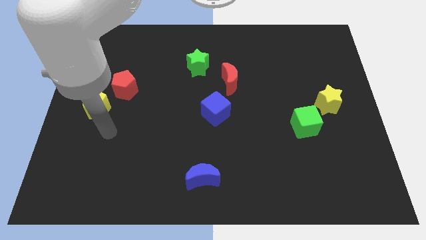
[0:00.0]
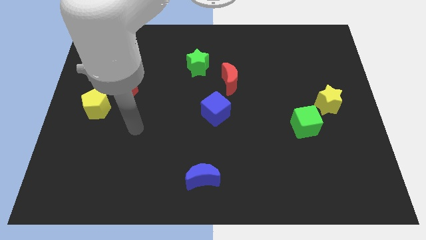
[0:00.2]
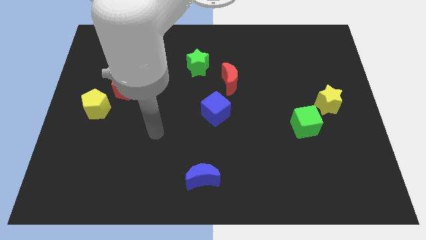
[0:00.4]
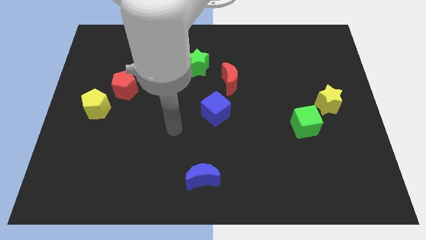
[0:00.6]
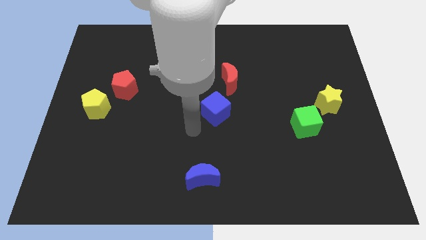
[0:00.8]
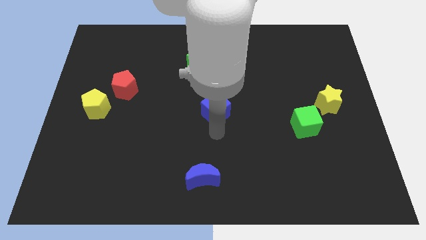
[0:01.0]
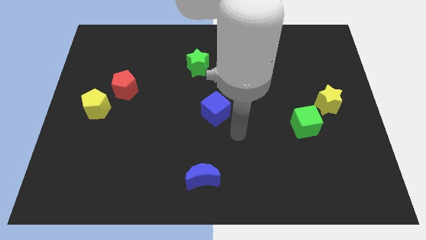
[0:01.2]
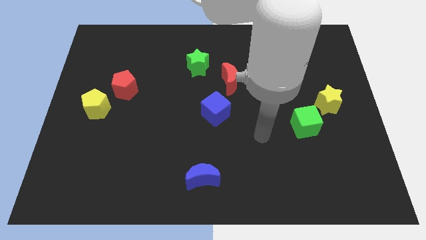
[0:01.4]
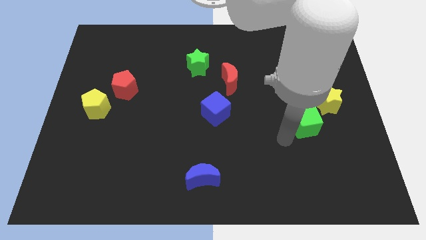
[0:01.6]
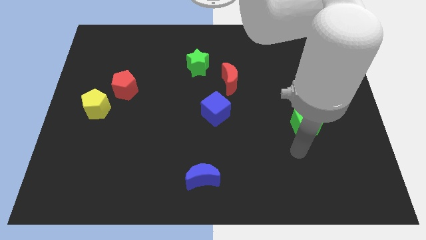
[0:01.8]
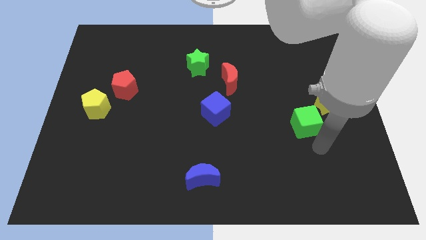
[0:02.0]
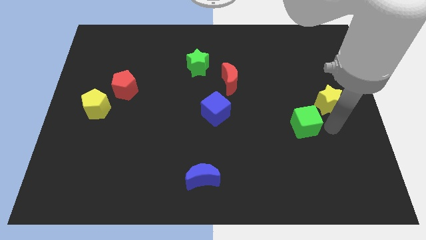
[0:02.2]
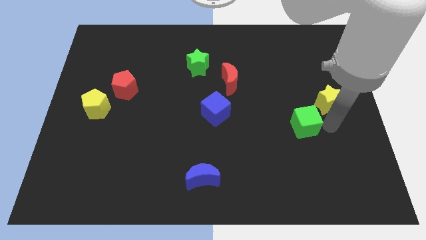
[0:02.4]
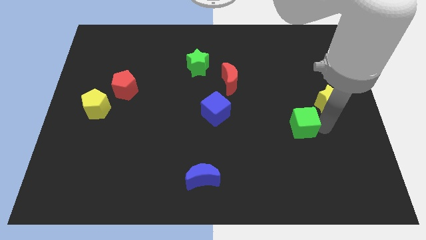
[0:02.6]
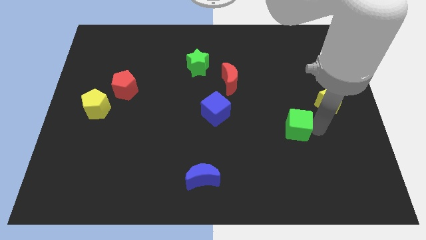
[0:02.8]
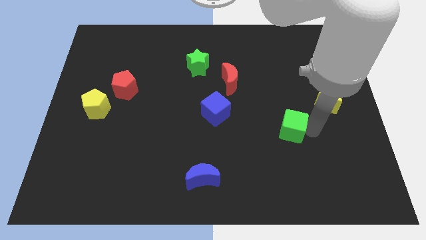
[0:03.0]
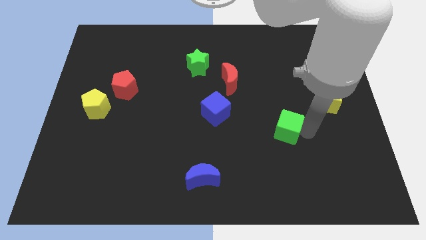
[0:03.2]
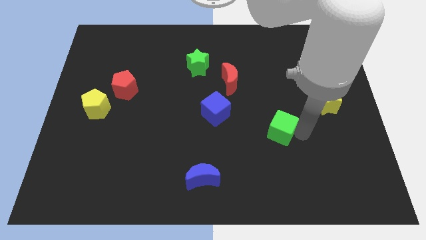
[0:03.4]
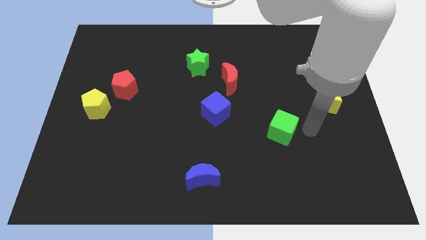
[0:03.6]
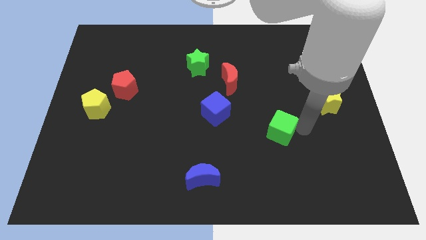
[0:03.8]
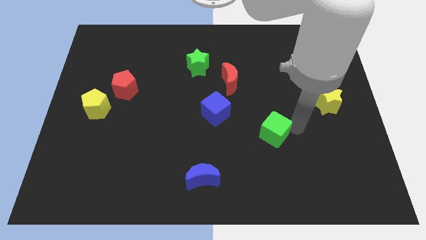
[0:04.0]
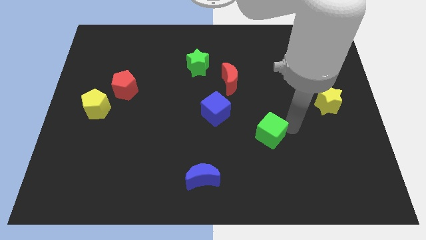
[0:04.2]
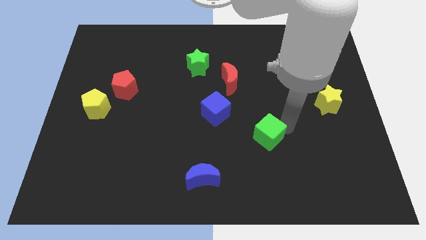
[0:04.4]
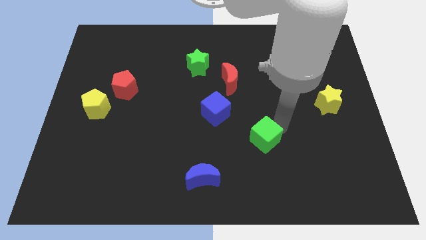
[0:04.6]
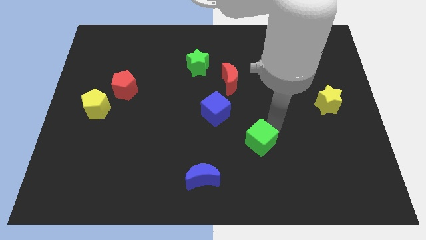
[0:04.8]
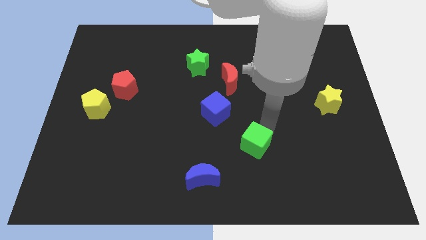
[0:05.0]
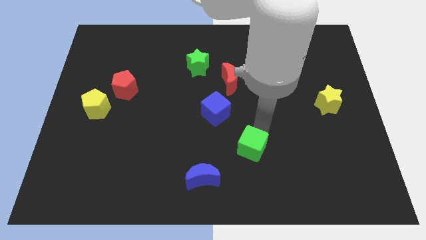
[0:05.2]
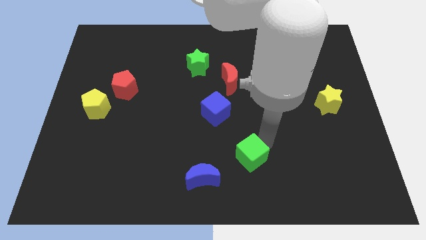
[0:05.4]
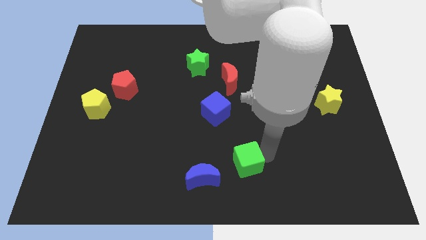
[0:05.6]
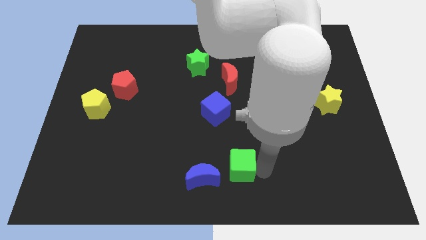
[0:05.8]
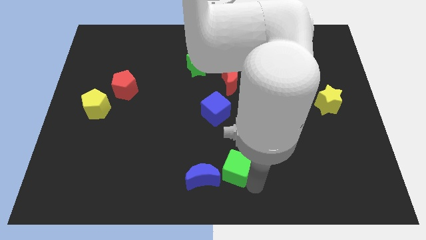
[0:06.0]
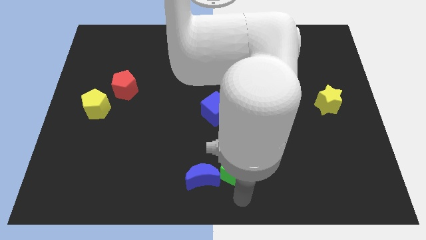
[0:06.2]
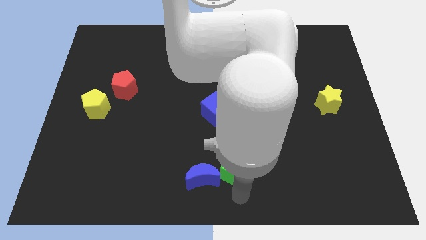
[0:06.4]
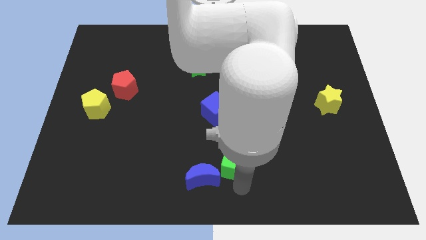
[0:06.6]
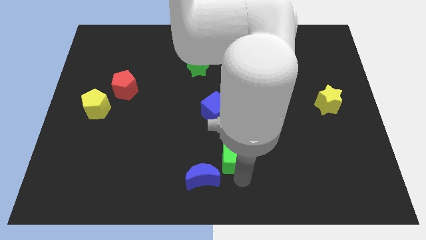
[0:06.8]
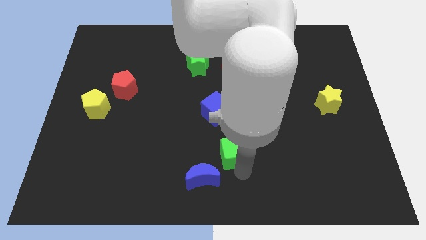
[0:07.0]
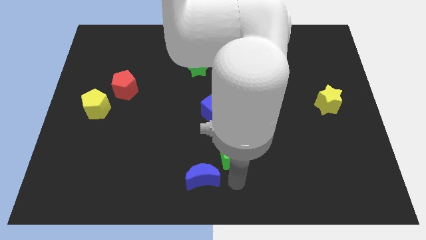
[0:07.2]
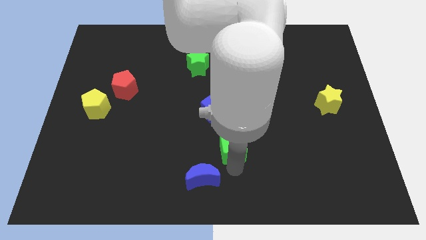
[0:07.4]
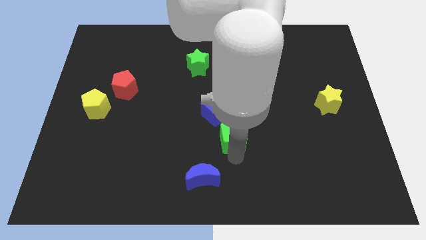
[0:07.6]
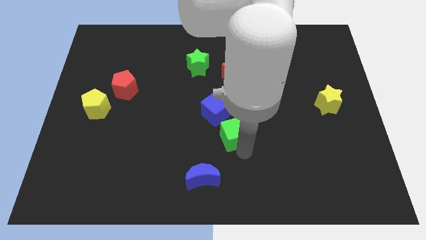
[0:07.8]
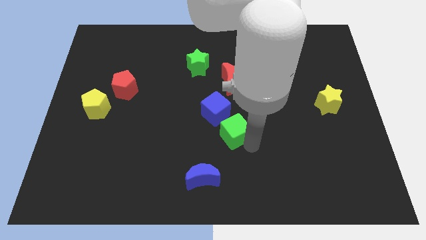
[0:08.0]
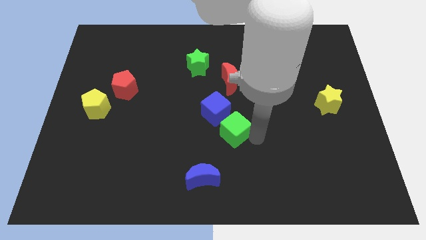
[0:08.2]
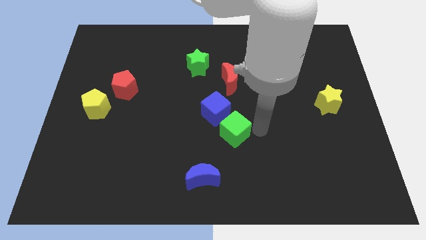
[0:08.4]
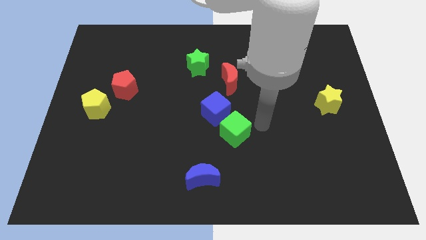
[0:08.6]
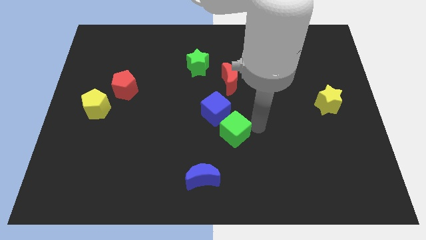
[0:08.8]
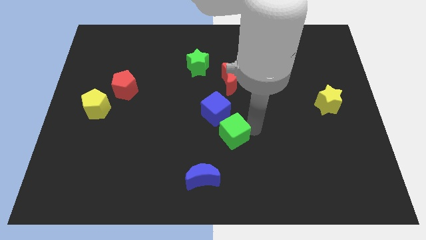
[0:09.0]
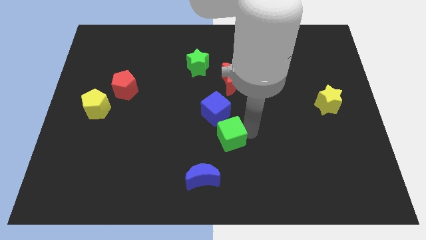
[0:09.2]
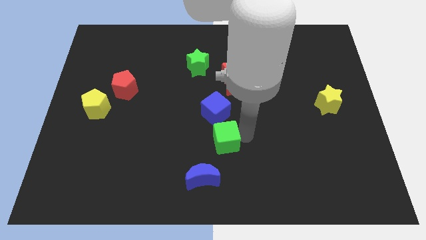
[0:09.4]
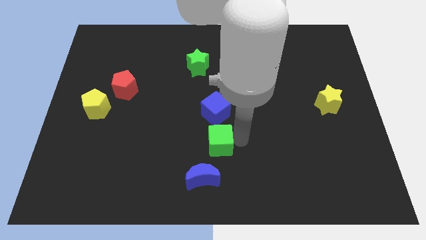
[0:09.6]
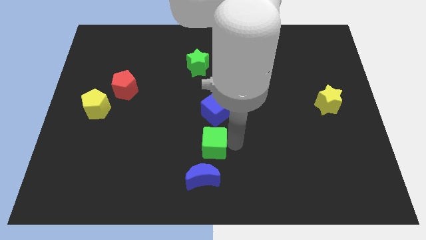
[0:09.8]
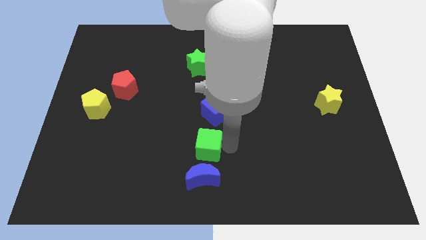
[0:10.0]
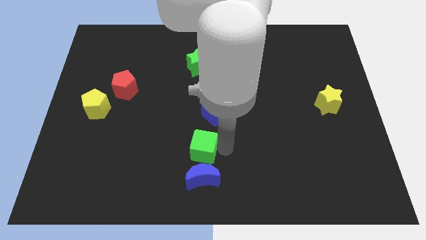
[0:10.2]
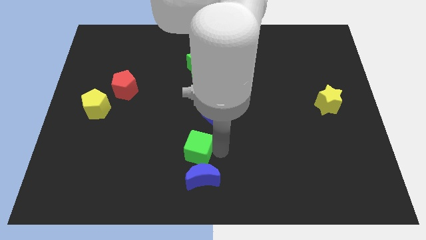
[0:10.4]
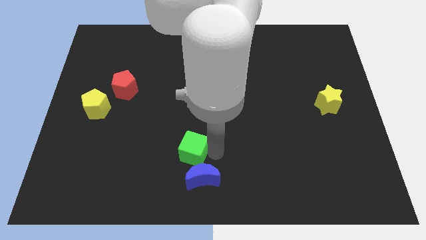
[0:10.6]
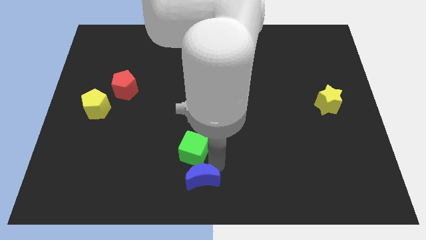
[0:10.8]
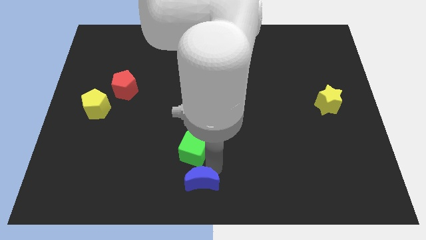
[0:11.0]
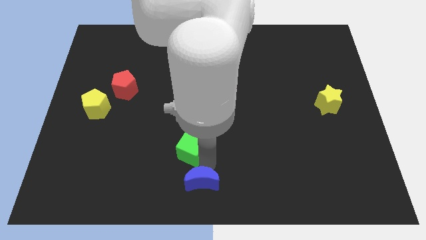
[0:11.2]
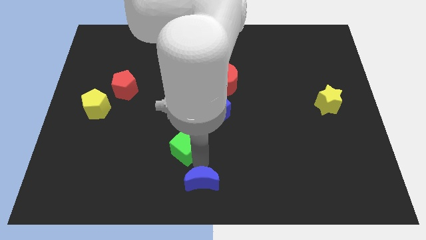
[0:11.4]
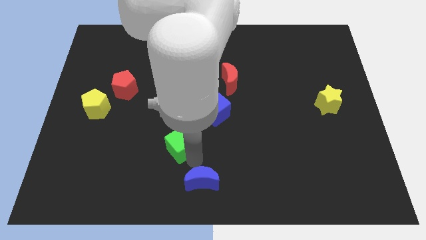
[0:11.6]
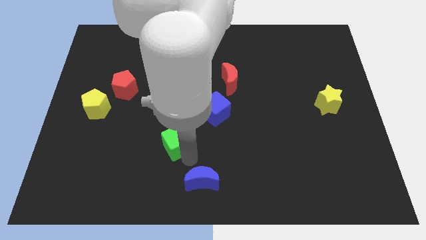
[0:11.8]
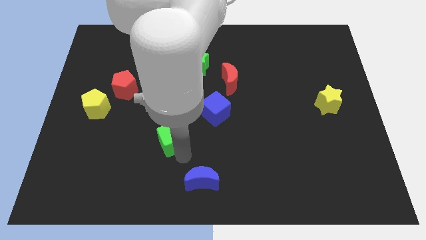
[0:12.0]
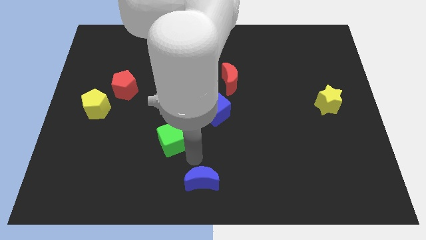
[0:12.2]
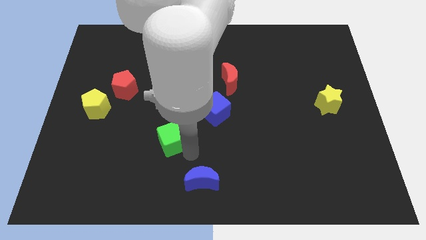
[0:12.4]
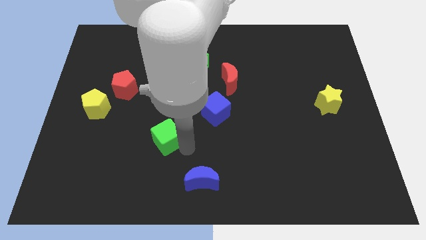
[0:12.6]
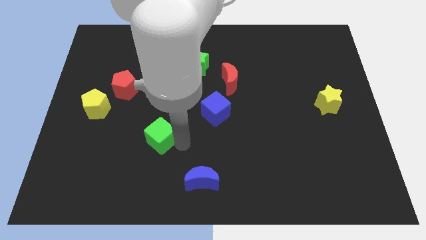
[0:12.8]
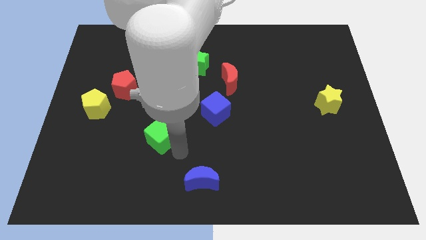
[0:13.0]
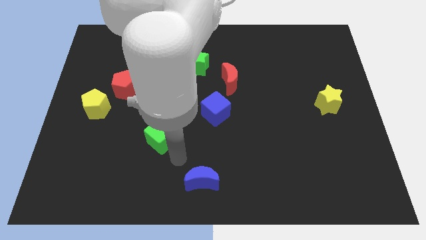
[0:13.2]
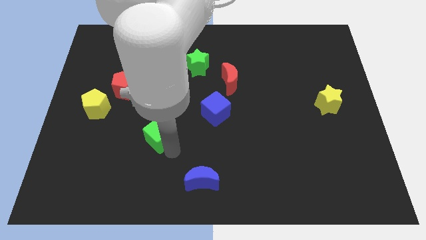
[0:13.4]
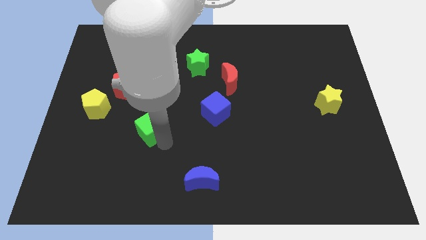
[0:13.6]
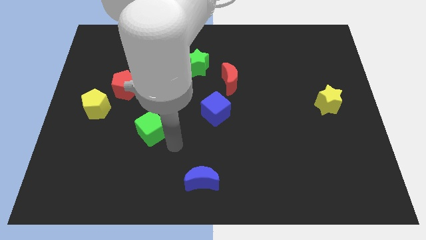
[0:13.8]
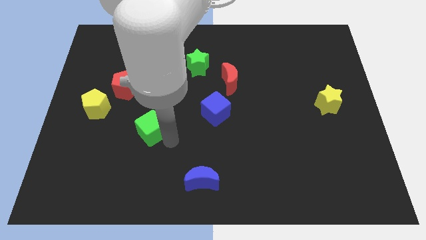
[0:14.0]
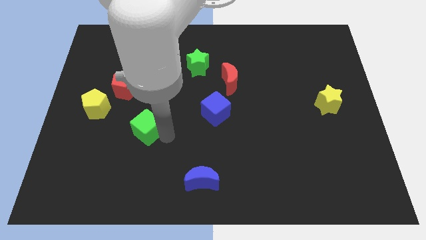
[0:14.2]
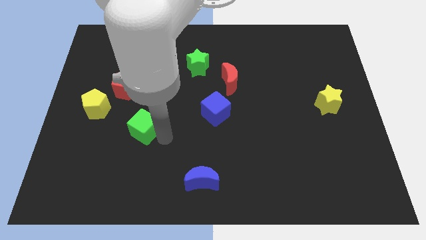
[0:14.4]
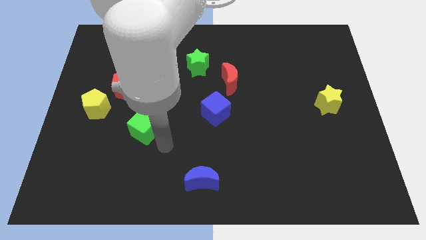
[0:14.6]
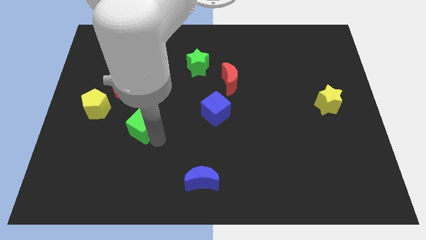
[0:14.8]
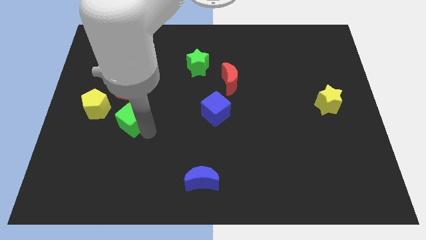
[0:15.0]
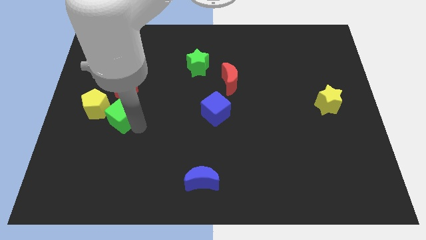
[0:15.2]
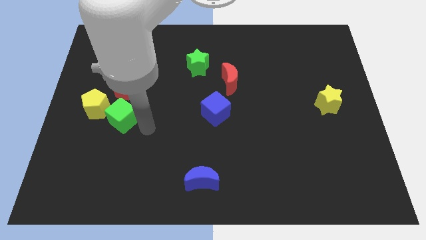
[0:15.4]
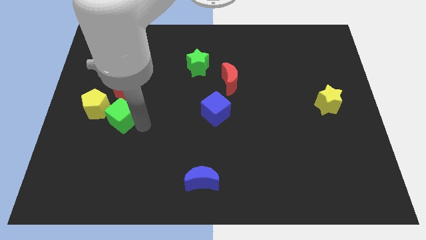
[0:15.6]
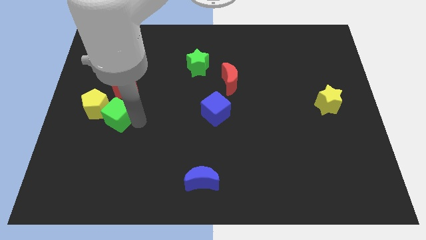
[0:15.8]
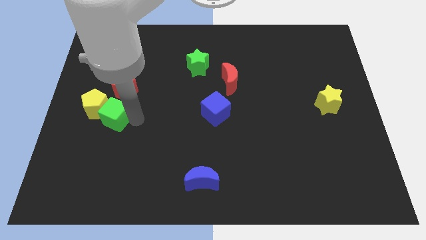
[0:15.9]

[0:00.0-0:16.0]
slide the green cube next to the yellow pentagon
